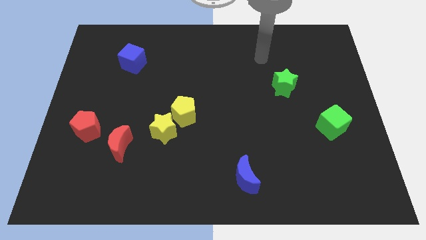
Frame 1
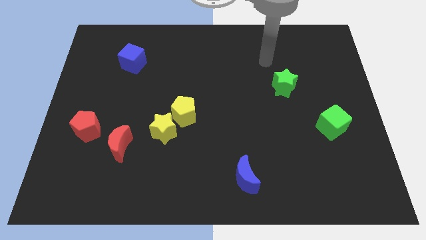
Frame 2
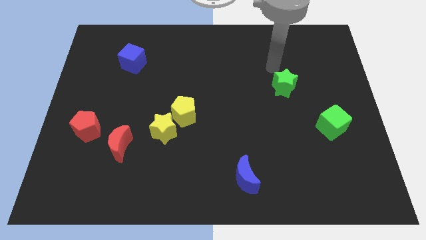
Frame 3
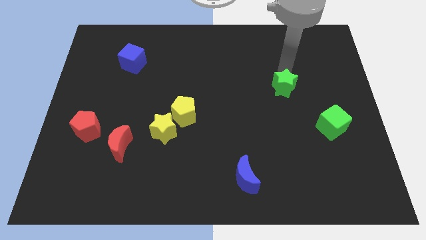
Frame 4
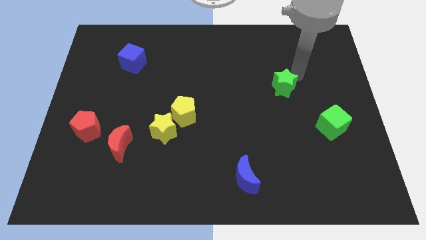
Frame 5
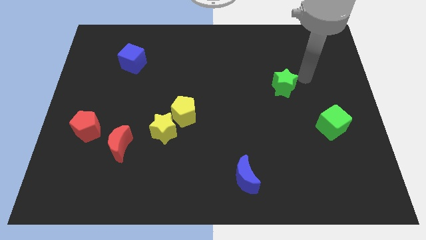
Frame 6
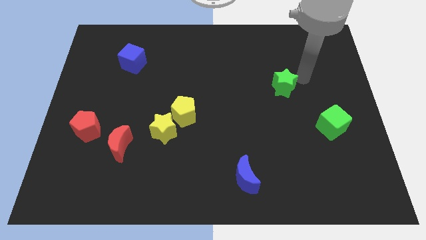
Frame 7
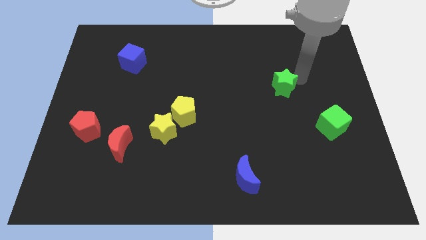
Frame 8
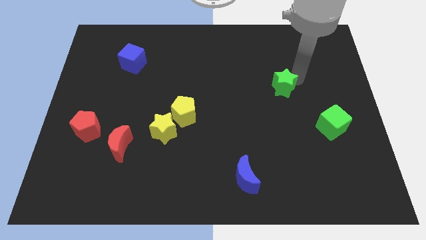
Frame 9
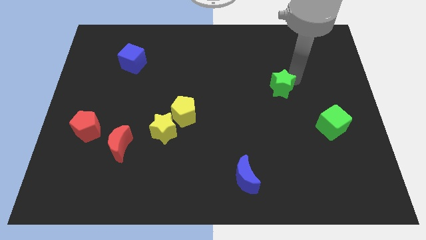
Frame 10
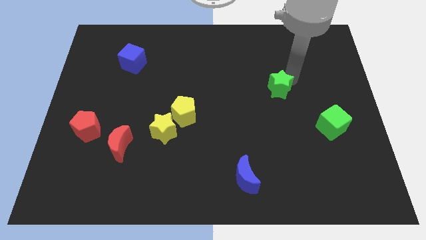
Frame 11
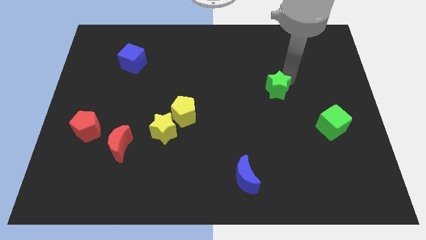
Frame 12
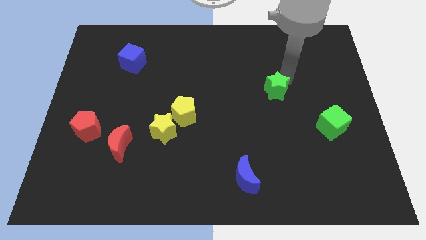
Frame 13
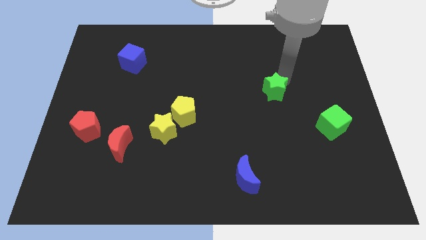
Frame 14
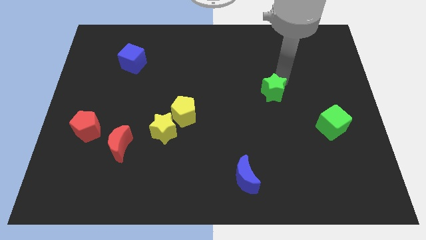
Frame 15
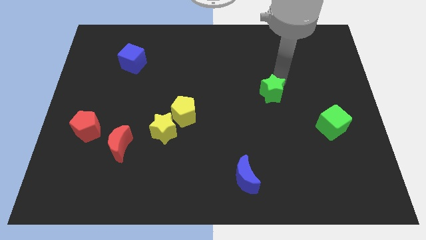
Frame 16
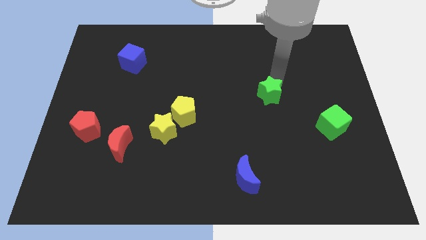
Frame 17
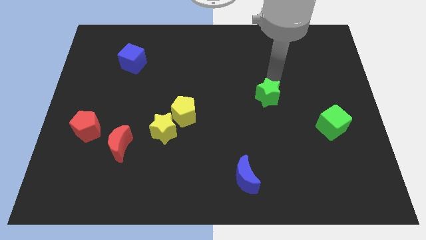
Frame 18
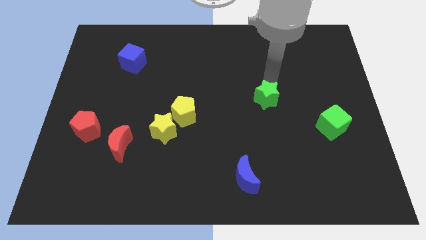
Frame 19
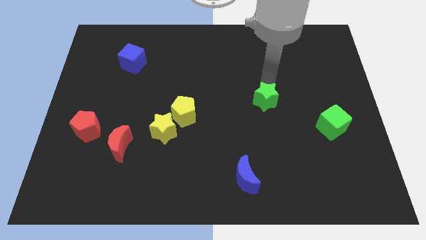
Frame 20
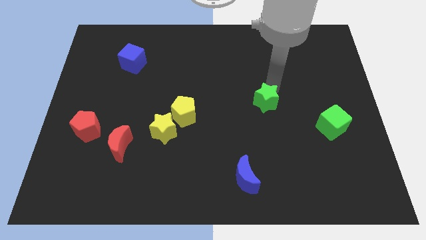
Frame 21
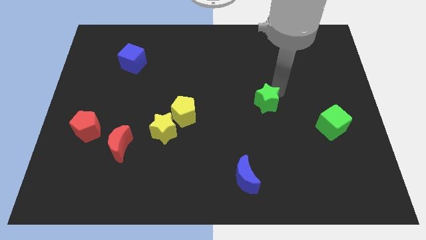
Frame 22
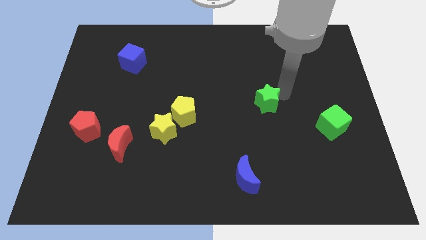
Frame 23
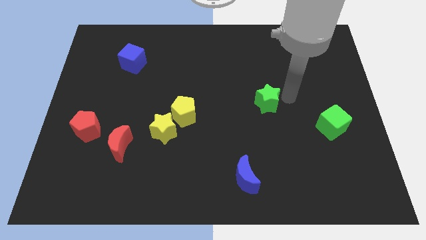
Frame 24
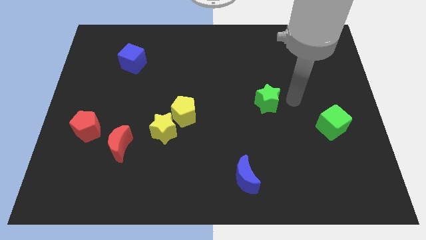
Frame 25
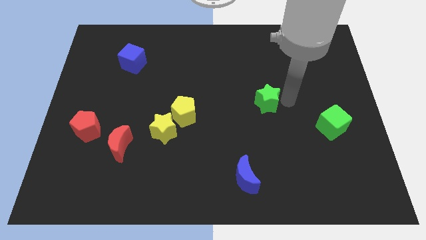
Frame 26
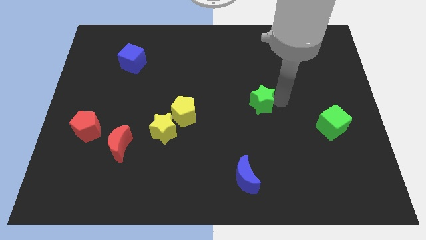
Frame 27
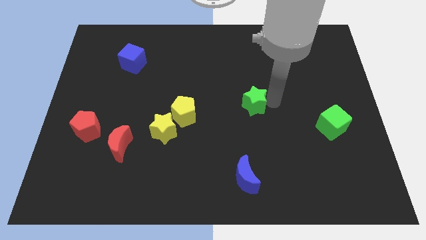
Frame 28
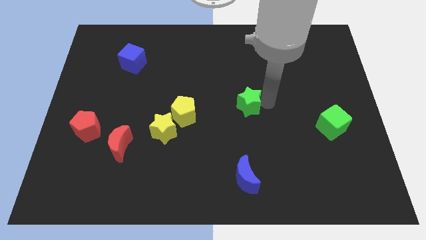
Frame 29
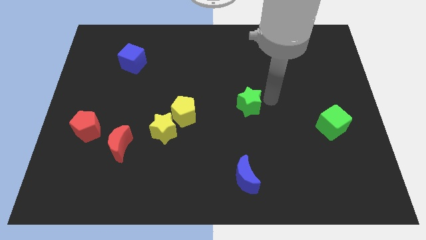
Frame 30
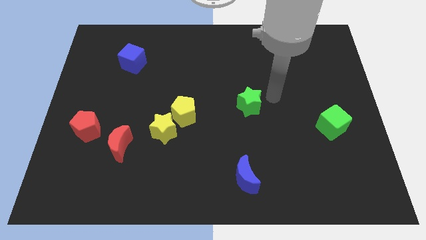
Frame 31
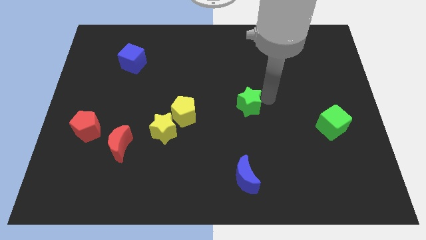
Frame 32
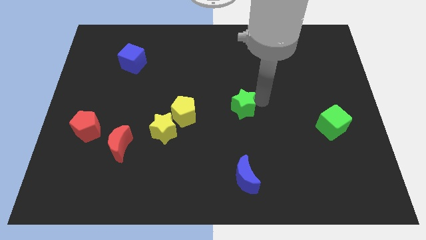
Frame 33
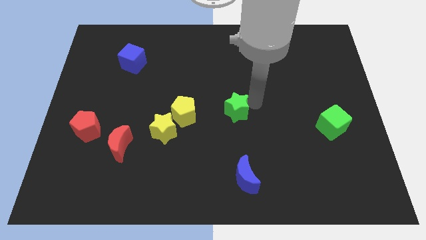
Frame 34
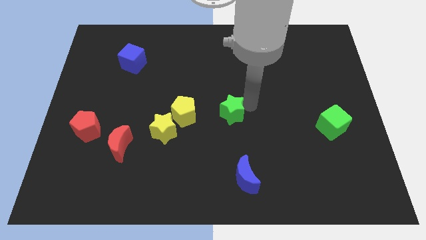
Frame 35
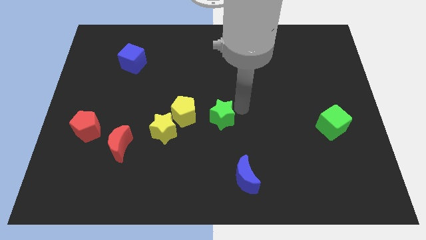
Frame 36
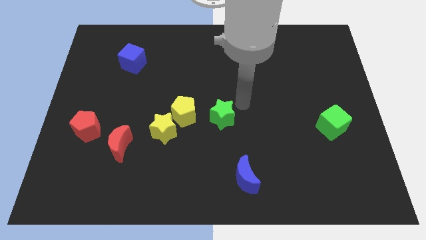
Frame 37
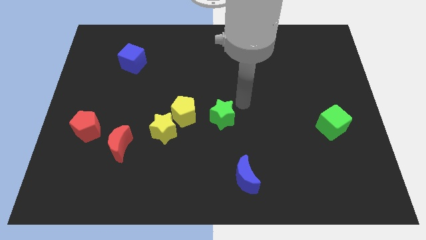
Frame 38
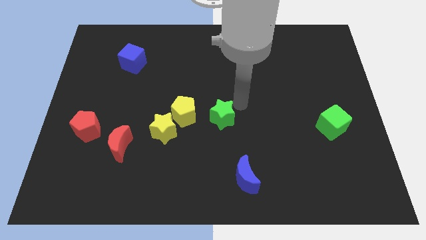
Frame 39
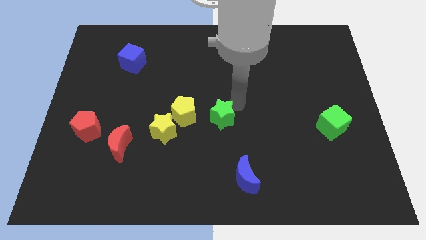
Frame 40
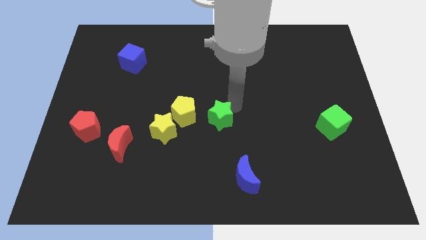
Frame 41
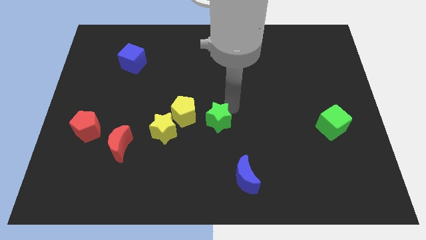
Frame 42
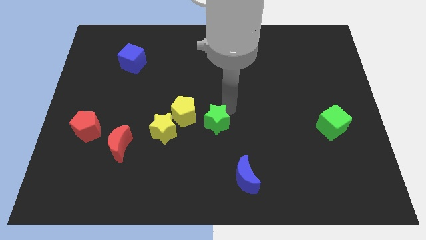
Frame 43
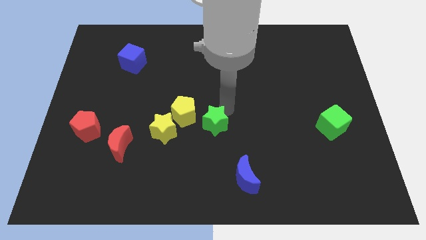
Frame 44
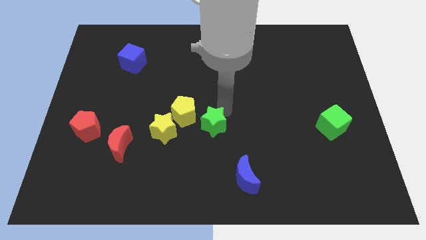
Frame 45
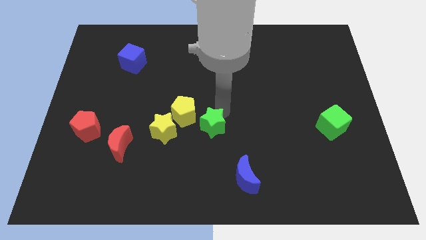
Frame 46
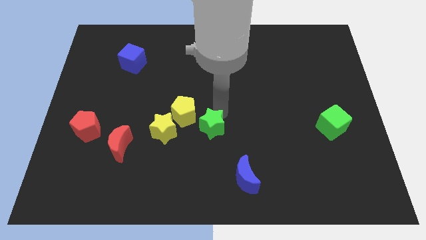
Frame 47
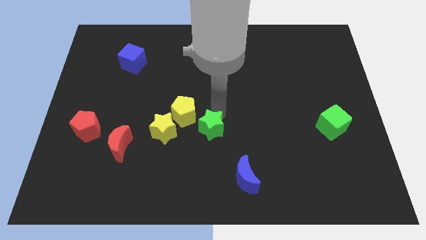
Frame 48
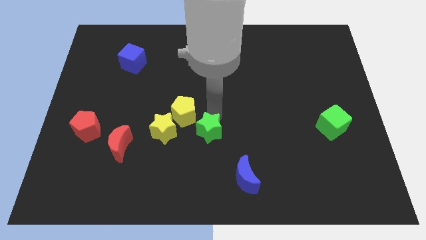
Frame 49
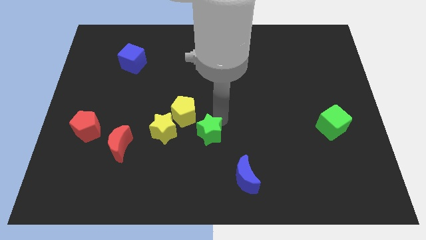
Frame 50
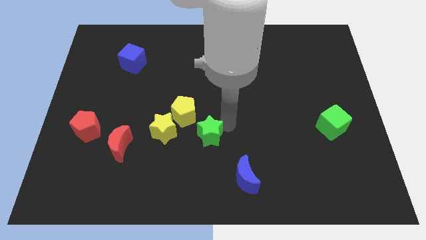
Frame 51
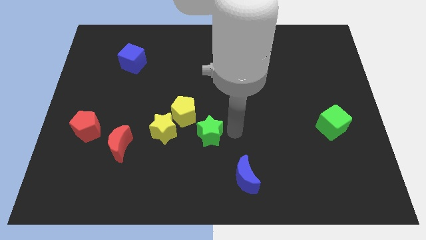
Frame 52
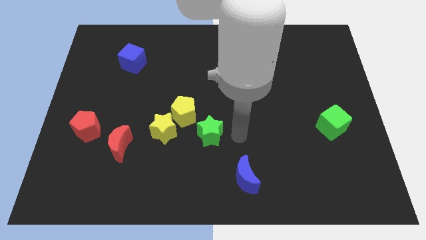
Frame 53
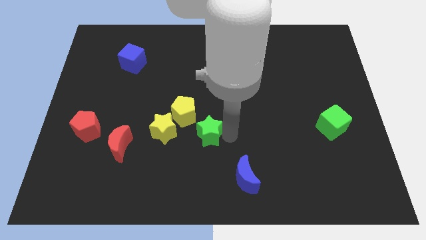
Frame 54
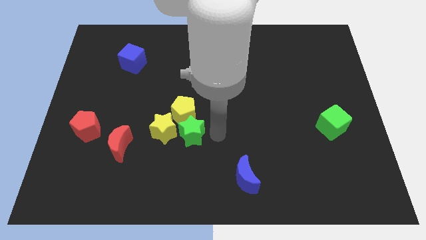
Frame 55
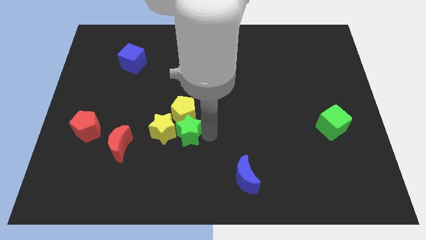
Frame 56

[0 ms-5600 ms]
push the green star towards the yellow star

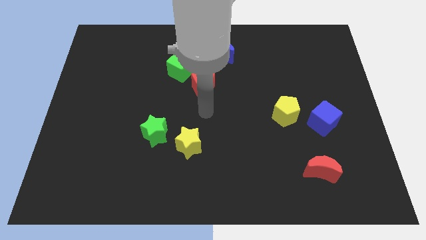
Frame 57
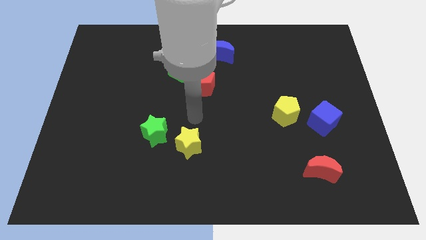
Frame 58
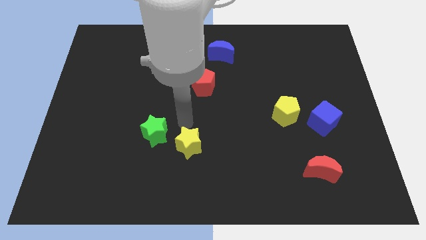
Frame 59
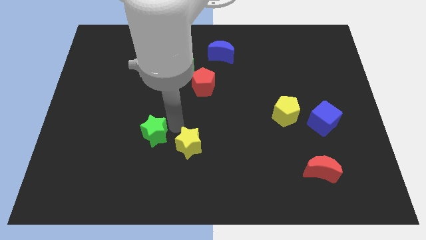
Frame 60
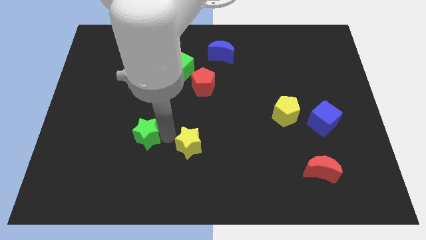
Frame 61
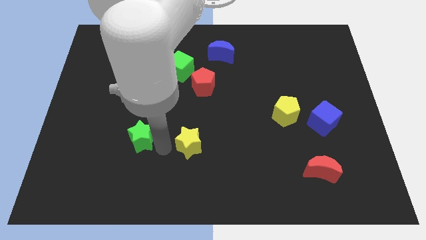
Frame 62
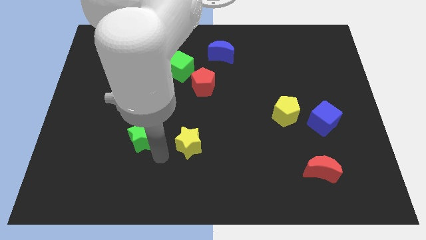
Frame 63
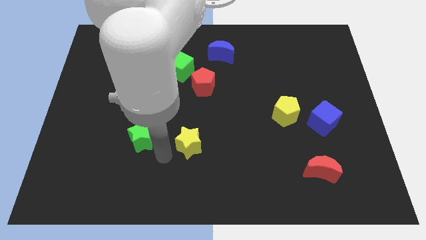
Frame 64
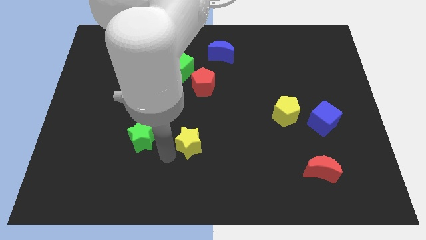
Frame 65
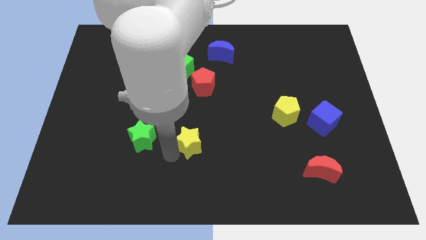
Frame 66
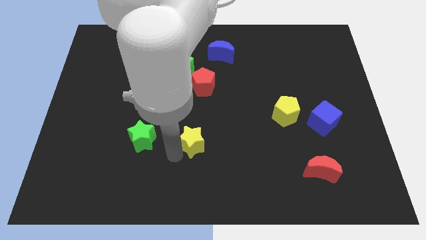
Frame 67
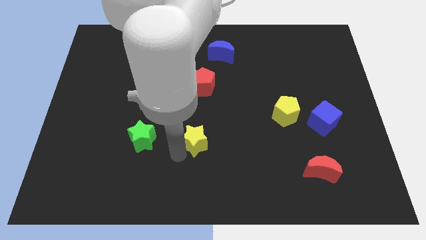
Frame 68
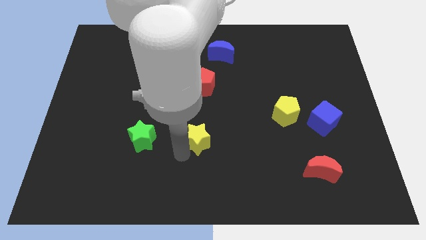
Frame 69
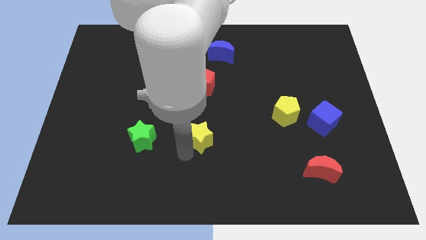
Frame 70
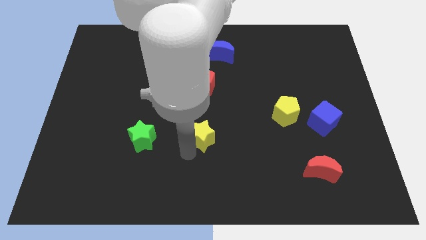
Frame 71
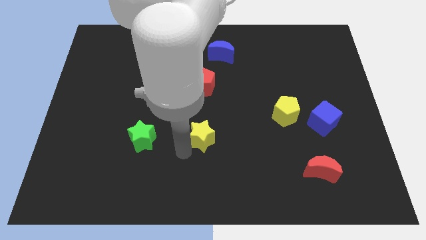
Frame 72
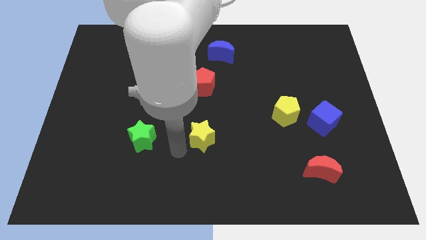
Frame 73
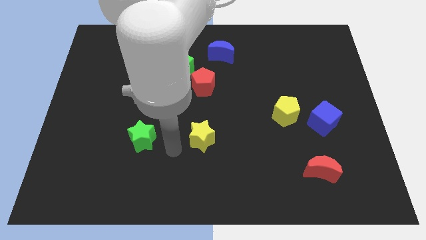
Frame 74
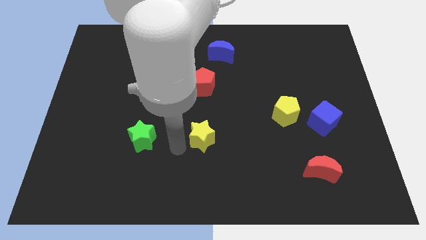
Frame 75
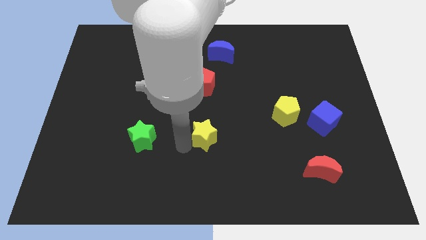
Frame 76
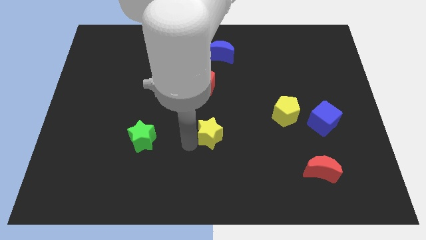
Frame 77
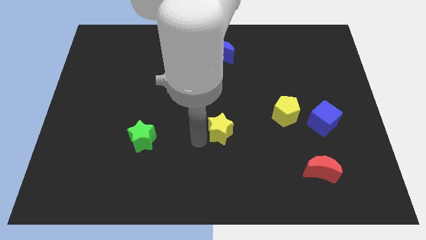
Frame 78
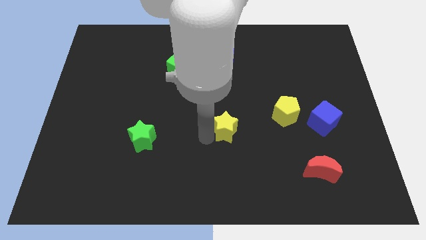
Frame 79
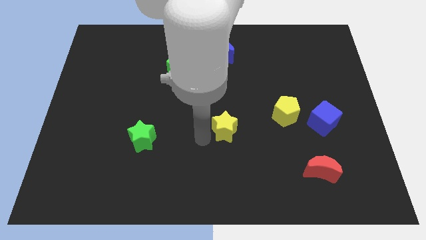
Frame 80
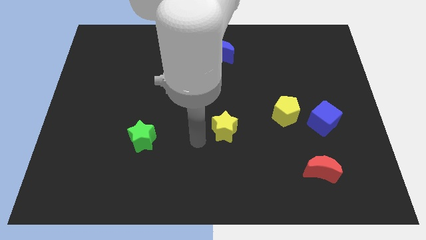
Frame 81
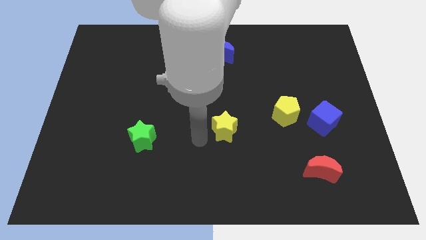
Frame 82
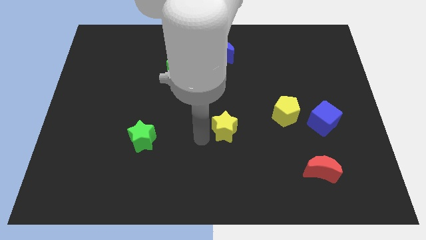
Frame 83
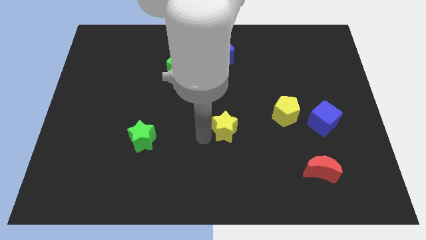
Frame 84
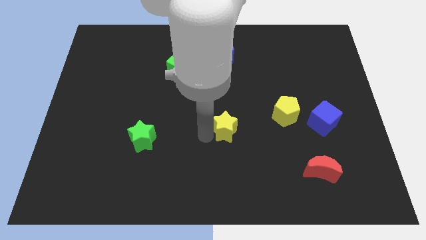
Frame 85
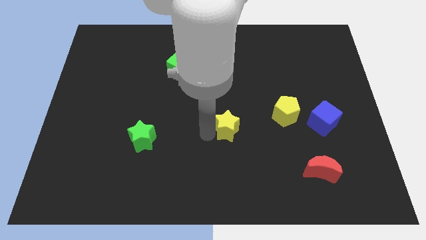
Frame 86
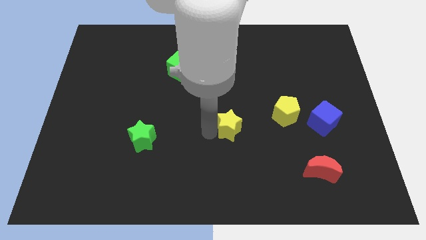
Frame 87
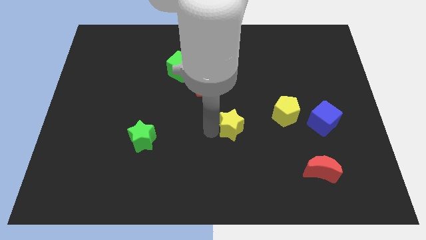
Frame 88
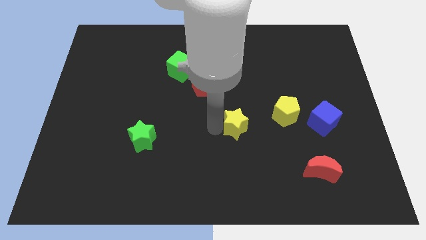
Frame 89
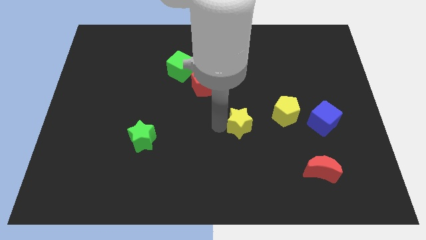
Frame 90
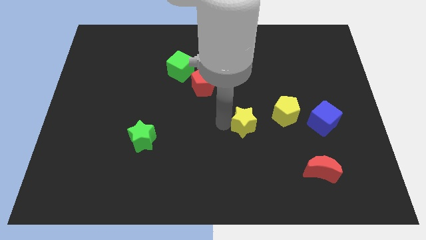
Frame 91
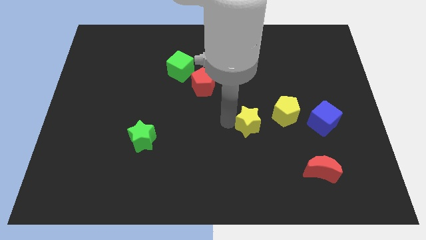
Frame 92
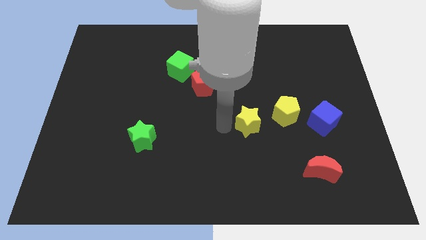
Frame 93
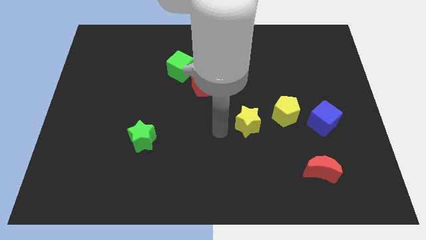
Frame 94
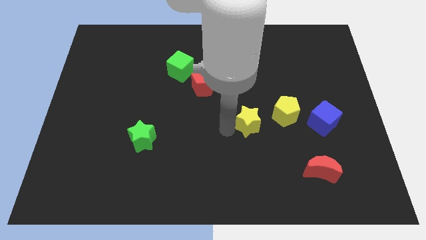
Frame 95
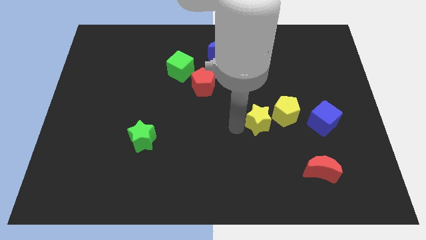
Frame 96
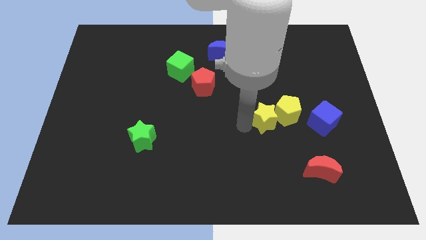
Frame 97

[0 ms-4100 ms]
slide the yellow star next to the yellow pentagon
